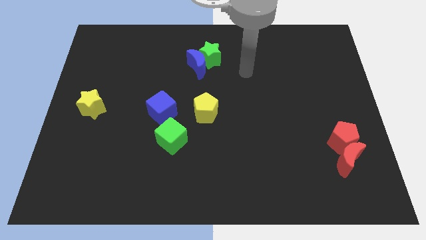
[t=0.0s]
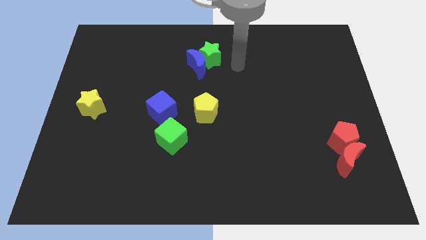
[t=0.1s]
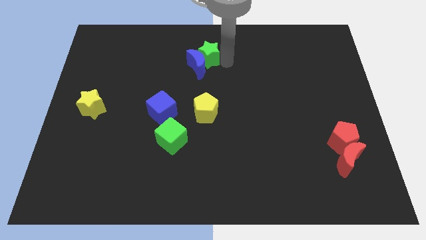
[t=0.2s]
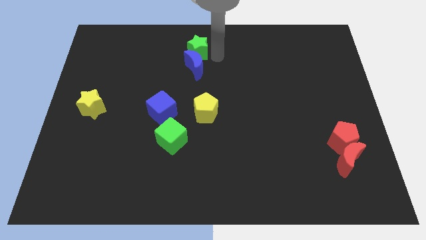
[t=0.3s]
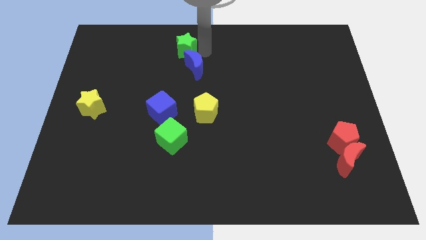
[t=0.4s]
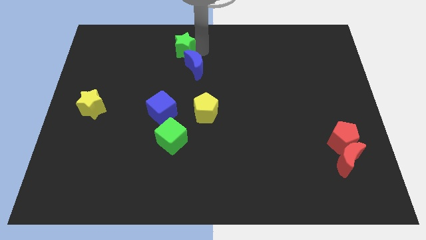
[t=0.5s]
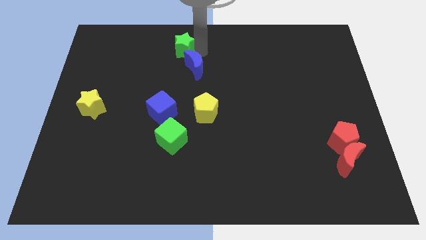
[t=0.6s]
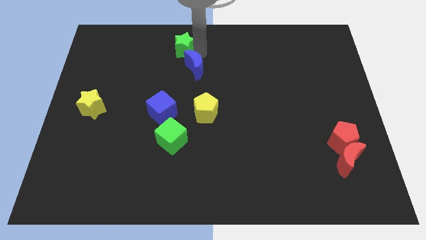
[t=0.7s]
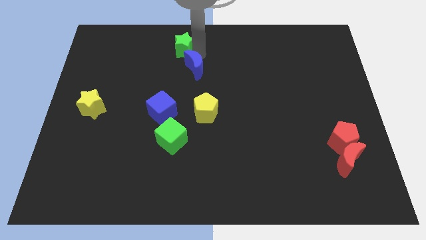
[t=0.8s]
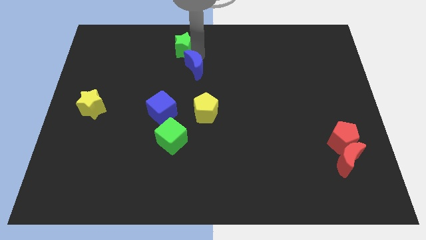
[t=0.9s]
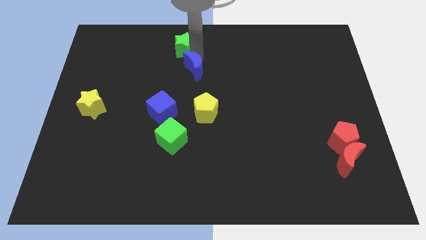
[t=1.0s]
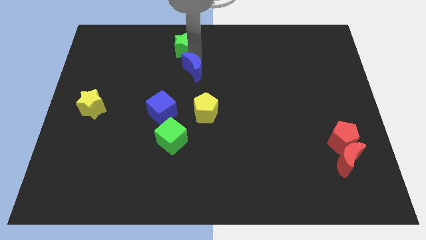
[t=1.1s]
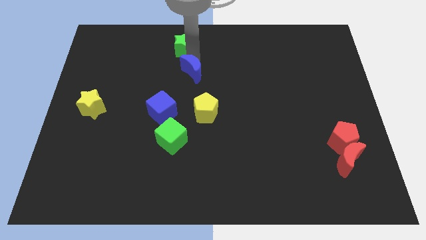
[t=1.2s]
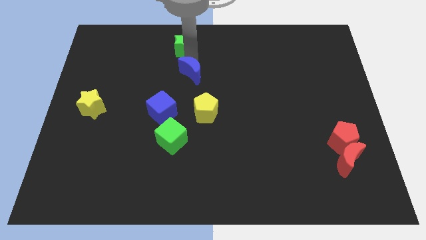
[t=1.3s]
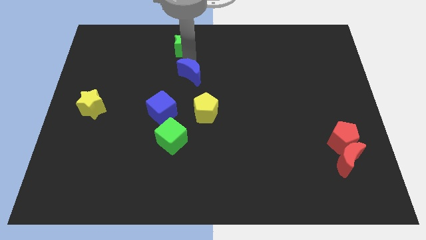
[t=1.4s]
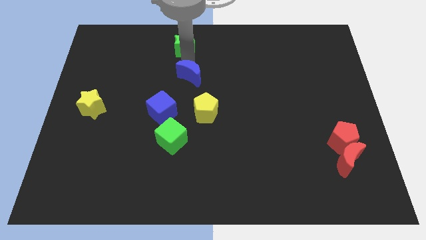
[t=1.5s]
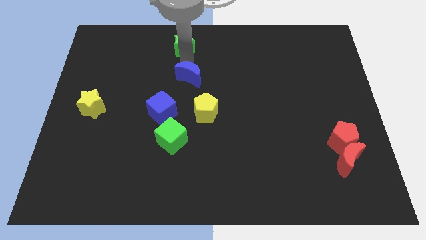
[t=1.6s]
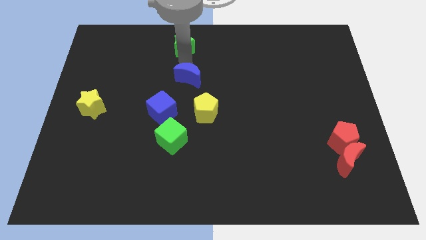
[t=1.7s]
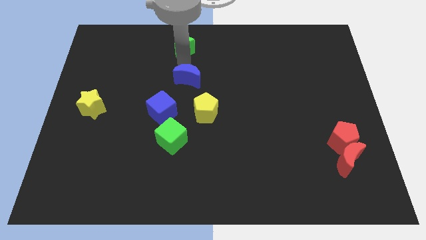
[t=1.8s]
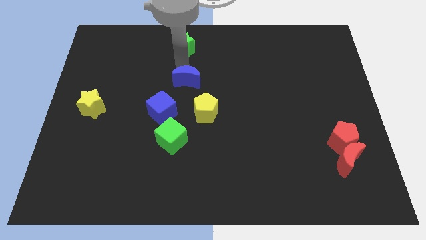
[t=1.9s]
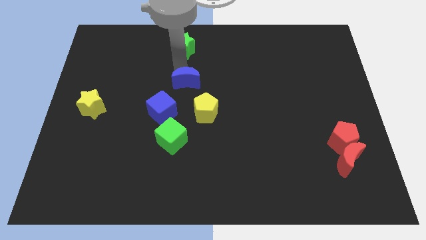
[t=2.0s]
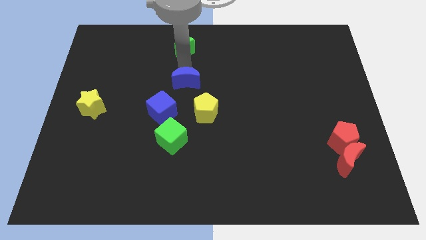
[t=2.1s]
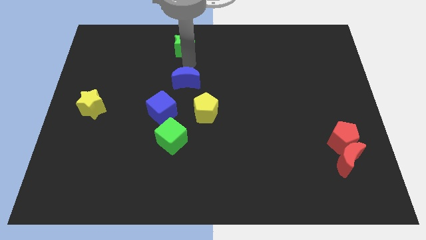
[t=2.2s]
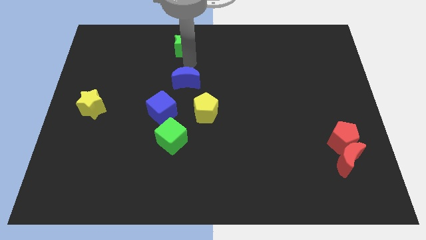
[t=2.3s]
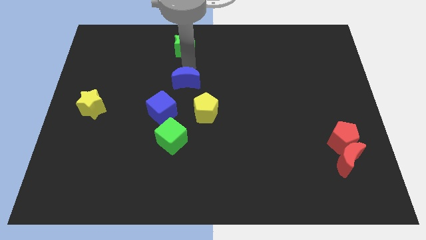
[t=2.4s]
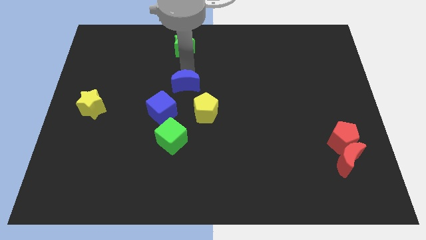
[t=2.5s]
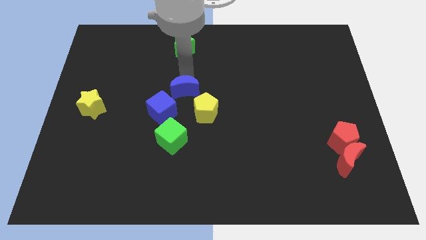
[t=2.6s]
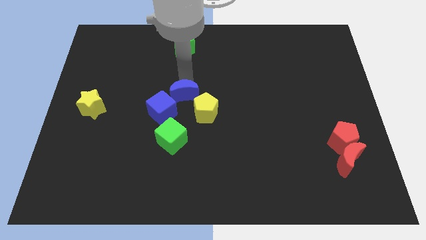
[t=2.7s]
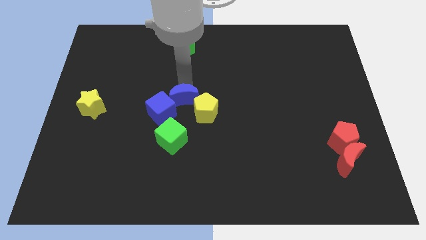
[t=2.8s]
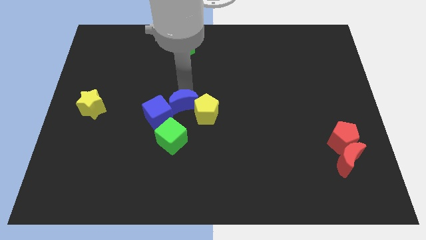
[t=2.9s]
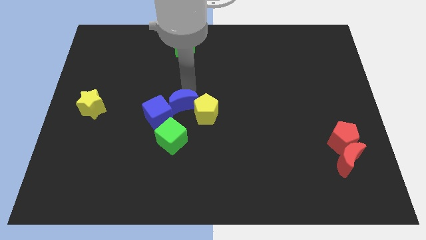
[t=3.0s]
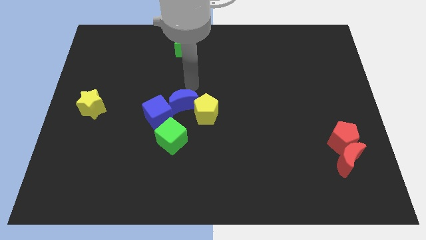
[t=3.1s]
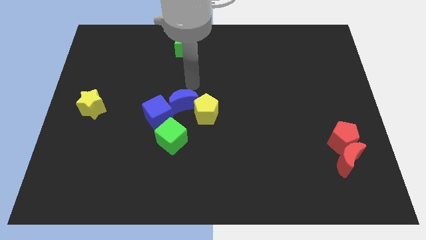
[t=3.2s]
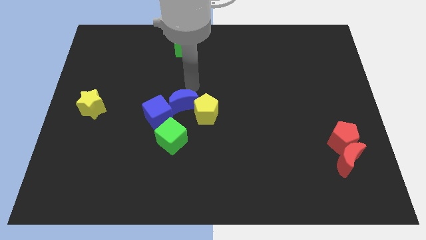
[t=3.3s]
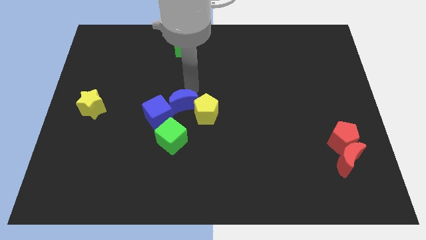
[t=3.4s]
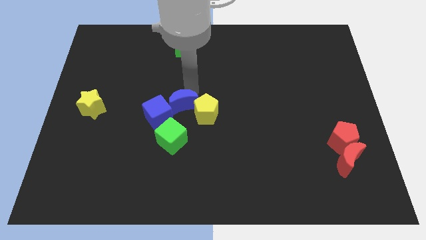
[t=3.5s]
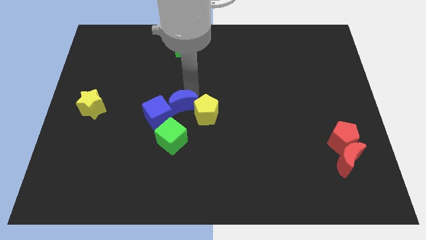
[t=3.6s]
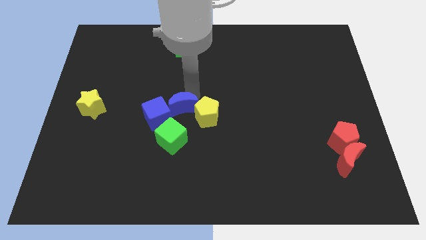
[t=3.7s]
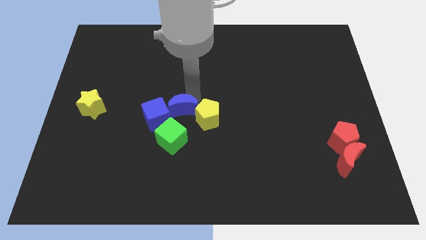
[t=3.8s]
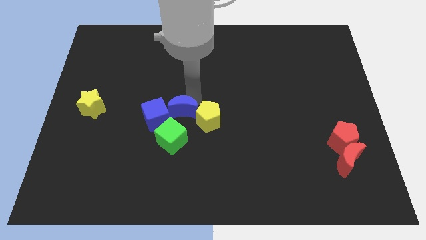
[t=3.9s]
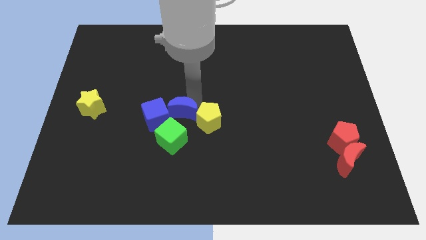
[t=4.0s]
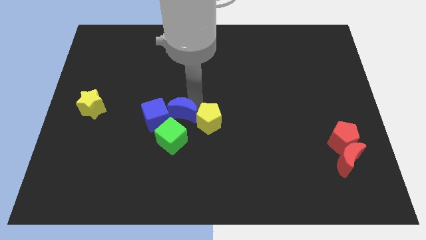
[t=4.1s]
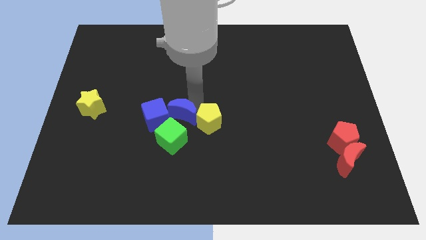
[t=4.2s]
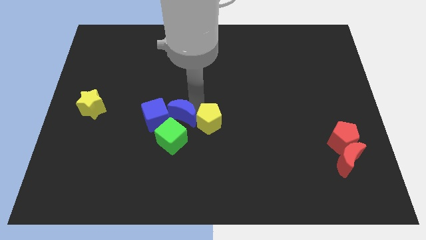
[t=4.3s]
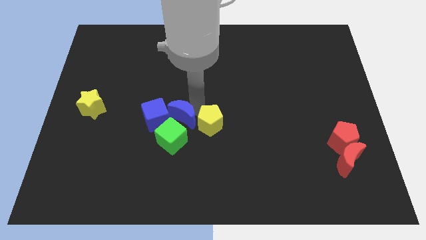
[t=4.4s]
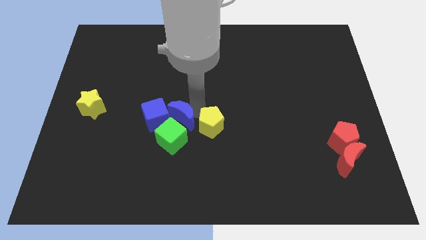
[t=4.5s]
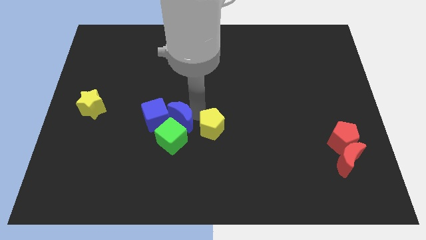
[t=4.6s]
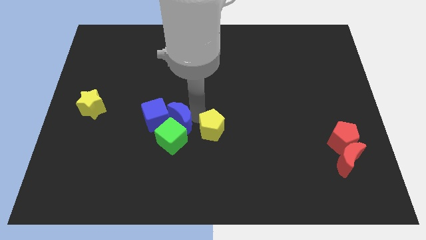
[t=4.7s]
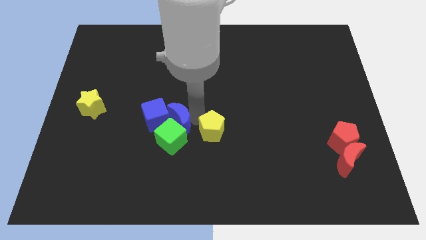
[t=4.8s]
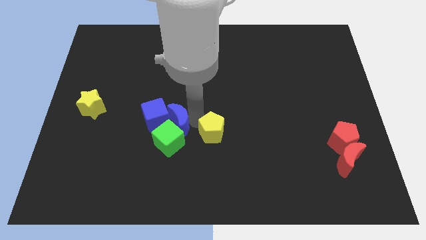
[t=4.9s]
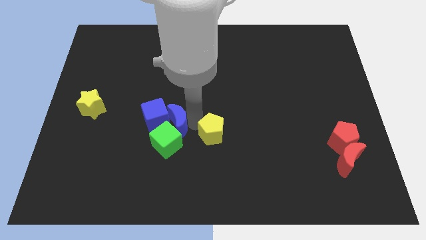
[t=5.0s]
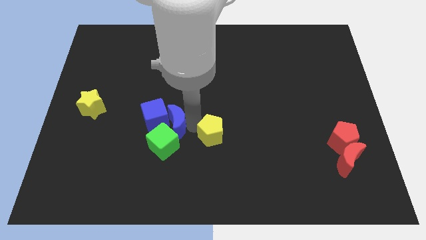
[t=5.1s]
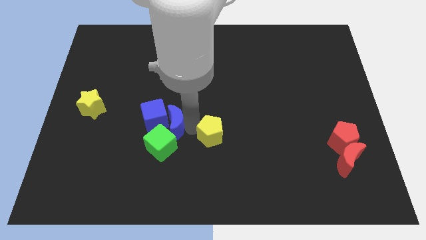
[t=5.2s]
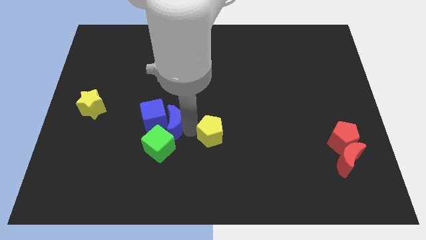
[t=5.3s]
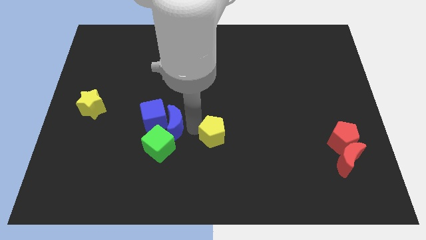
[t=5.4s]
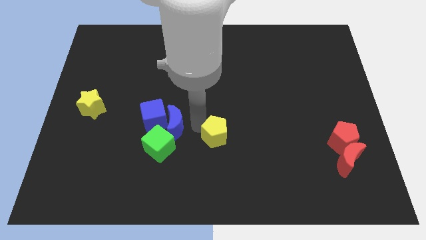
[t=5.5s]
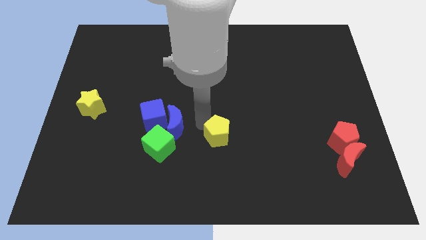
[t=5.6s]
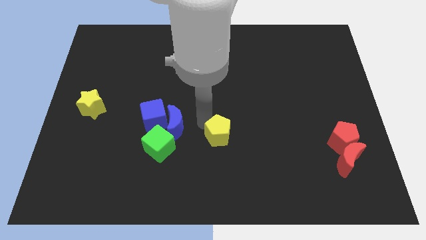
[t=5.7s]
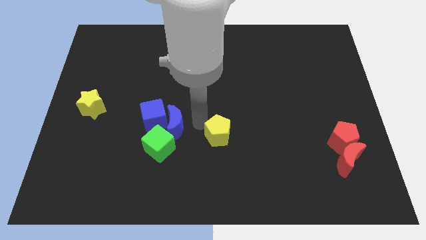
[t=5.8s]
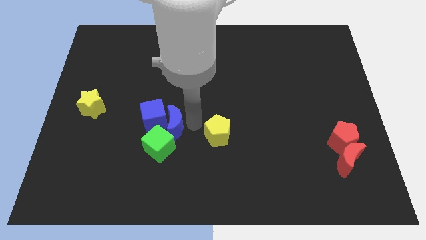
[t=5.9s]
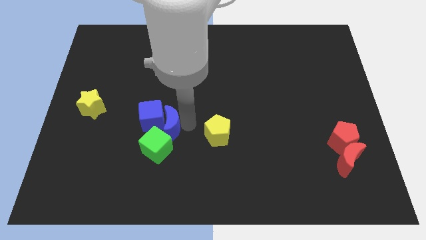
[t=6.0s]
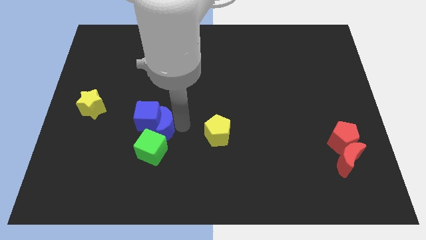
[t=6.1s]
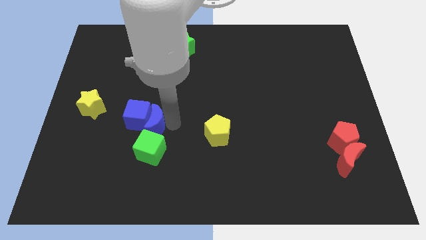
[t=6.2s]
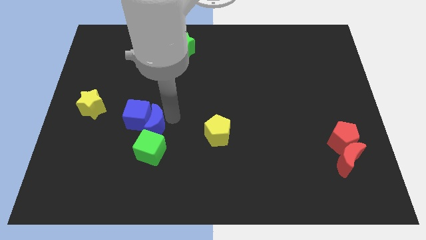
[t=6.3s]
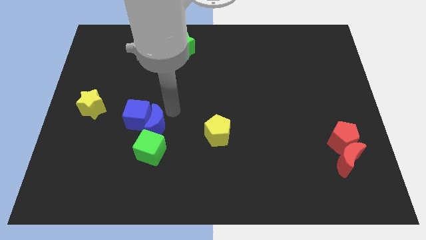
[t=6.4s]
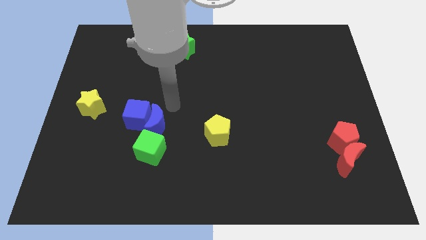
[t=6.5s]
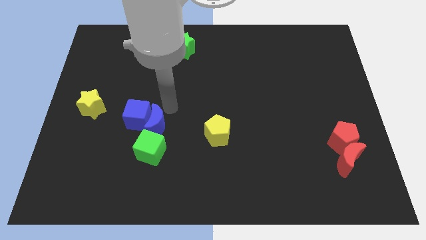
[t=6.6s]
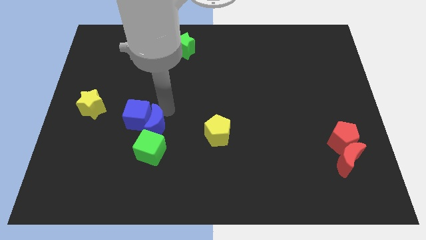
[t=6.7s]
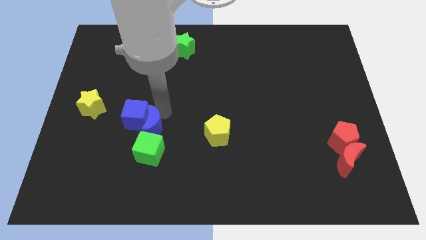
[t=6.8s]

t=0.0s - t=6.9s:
move the blue moon below the blue cube
